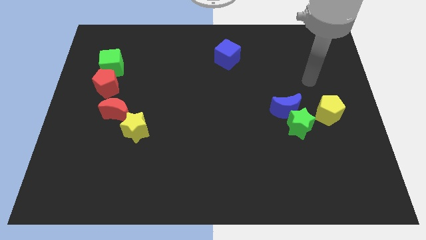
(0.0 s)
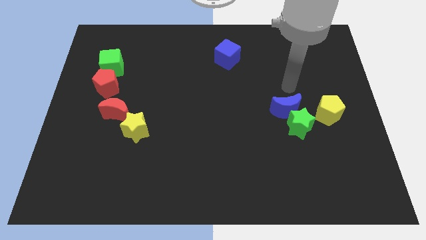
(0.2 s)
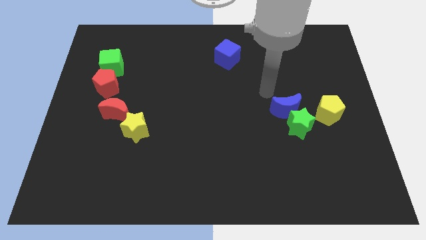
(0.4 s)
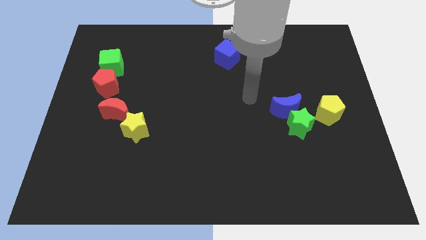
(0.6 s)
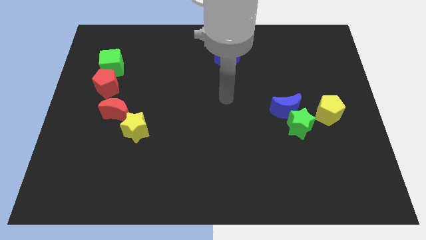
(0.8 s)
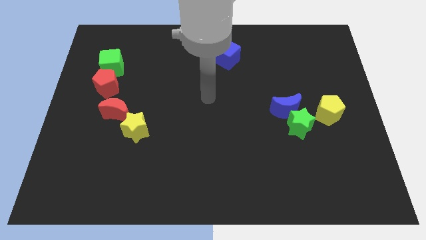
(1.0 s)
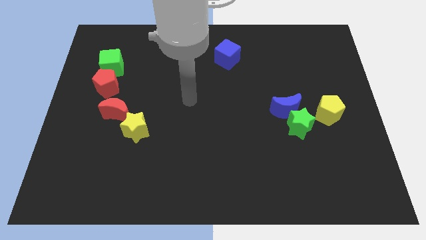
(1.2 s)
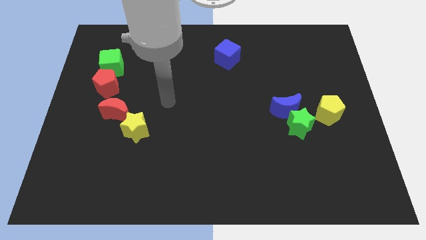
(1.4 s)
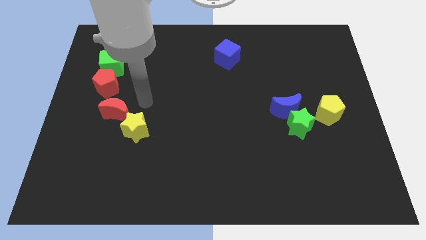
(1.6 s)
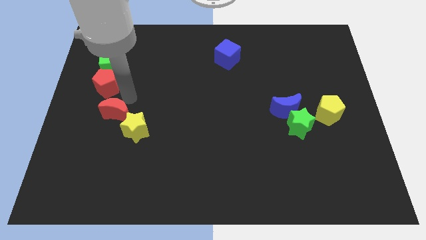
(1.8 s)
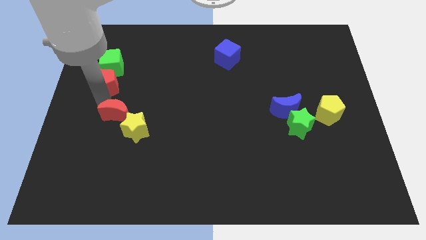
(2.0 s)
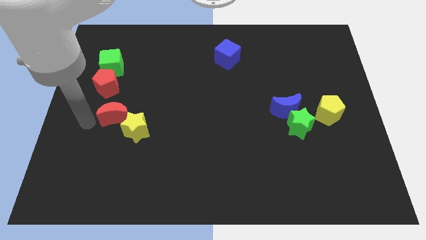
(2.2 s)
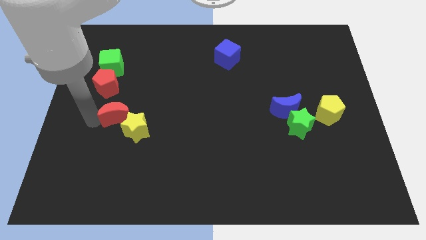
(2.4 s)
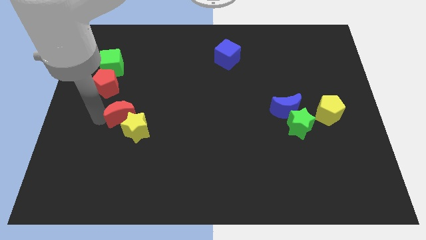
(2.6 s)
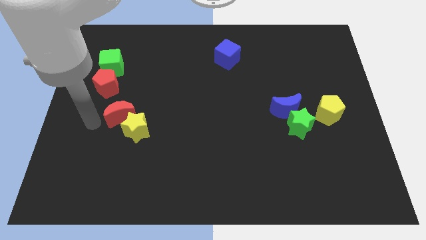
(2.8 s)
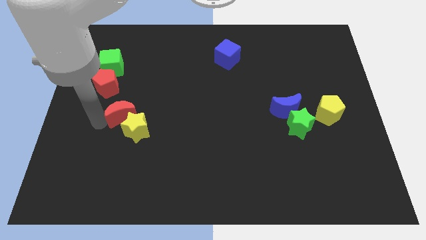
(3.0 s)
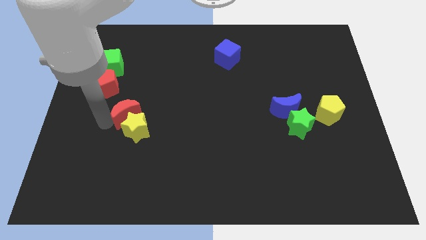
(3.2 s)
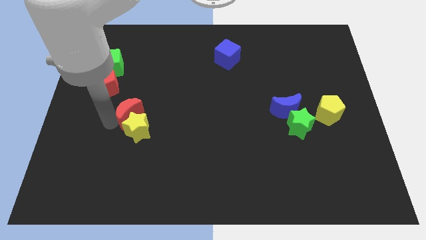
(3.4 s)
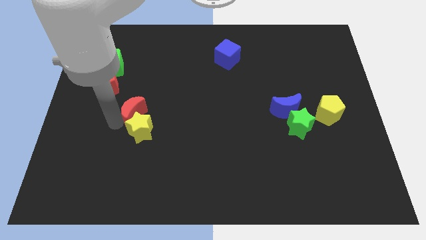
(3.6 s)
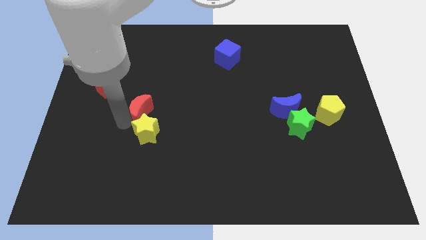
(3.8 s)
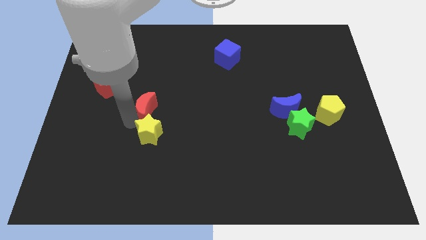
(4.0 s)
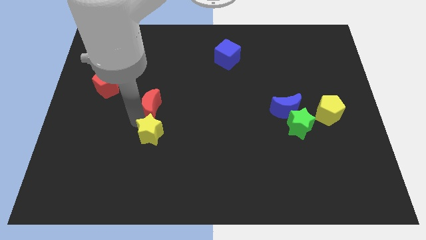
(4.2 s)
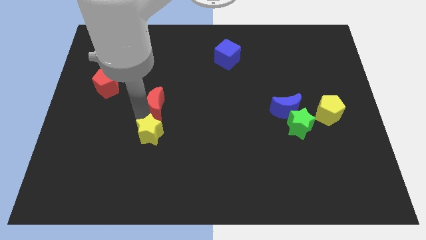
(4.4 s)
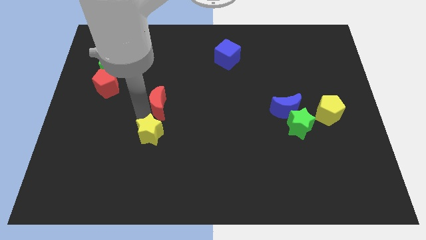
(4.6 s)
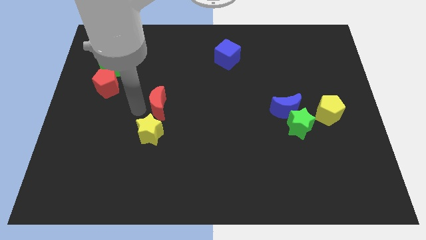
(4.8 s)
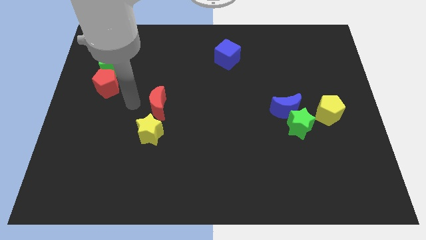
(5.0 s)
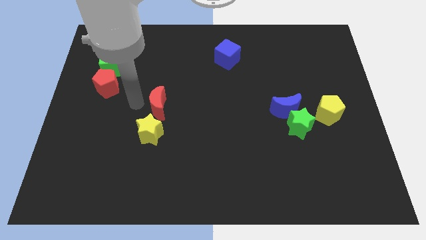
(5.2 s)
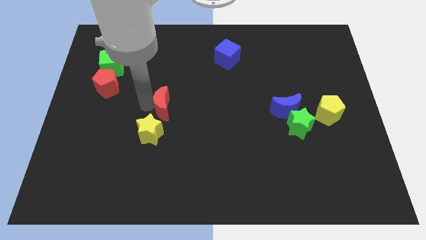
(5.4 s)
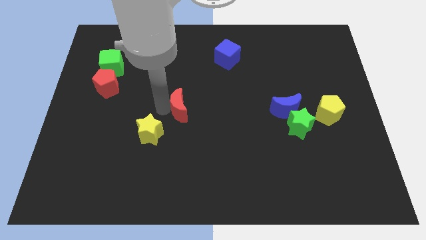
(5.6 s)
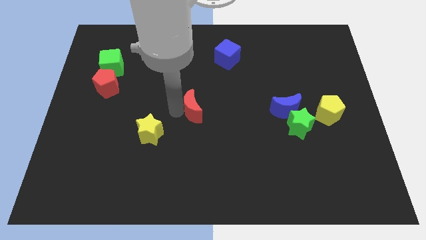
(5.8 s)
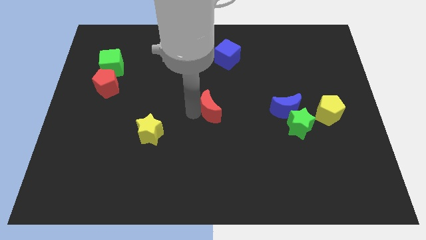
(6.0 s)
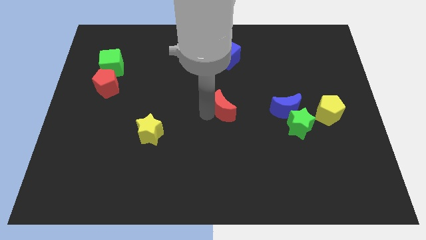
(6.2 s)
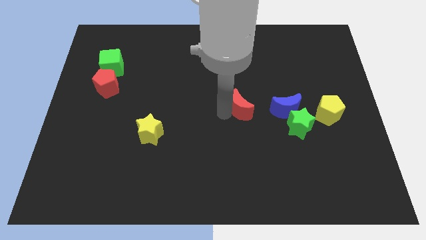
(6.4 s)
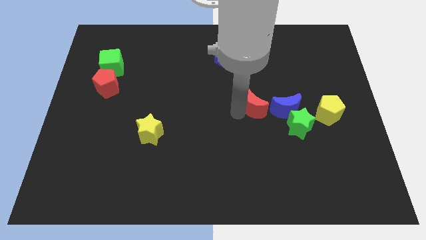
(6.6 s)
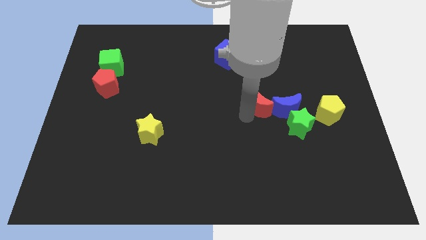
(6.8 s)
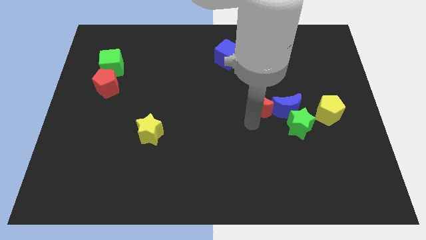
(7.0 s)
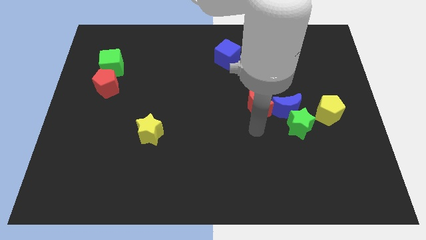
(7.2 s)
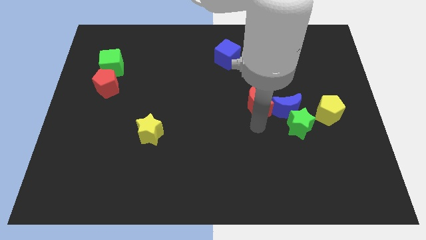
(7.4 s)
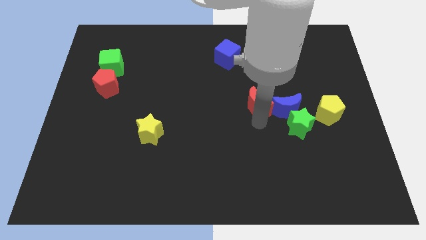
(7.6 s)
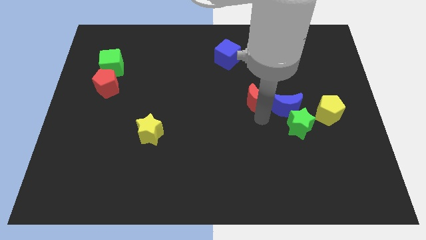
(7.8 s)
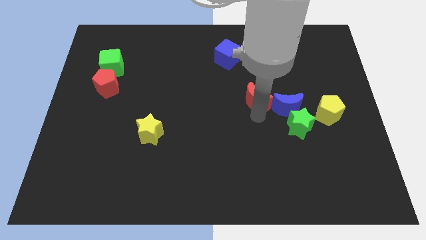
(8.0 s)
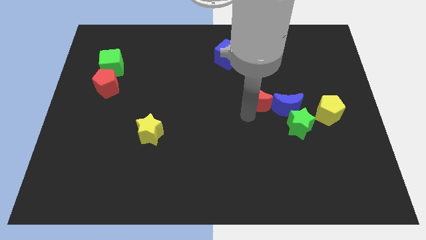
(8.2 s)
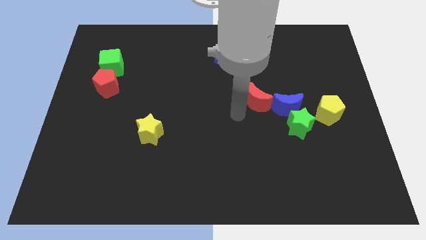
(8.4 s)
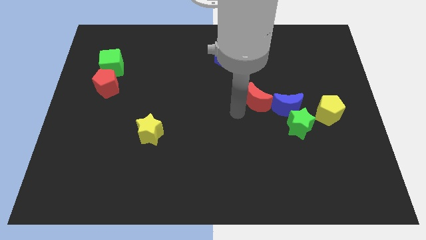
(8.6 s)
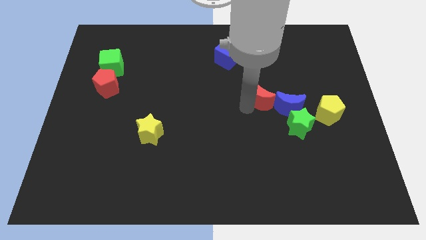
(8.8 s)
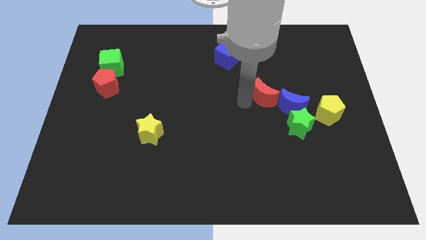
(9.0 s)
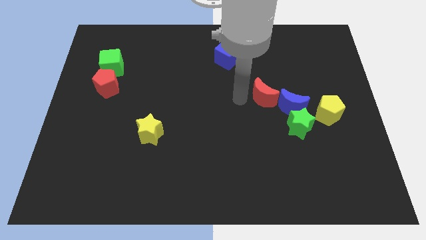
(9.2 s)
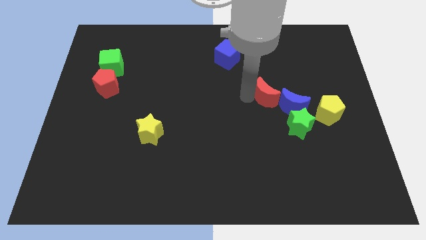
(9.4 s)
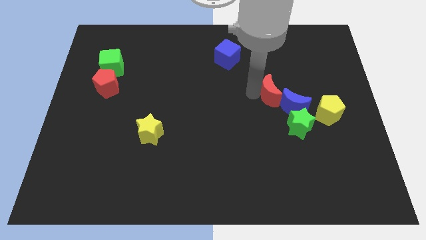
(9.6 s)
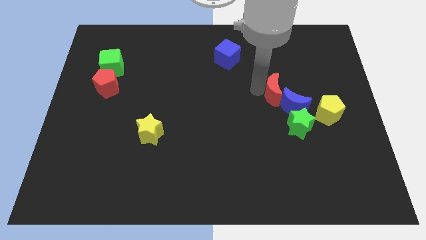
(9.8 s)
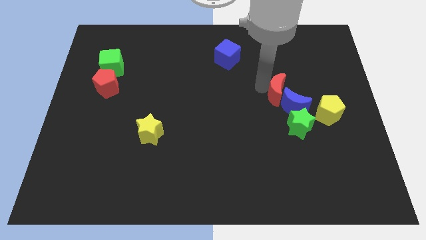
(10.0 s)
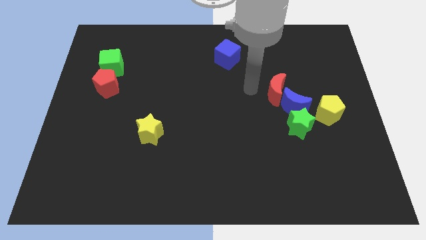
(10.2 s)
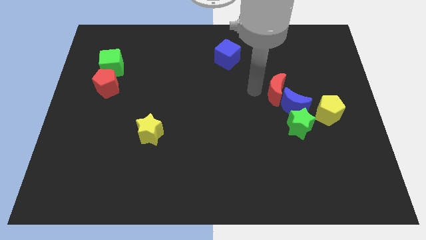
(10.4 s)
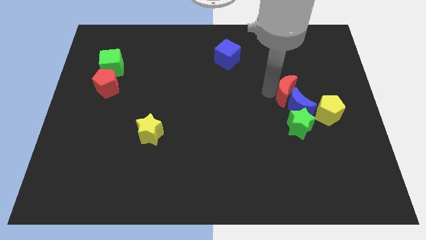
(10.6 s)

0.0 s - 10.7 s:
move the red moon to the top left of the yellow pentagon

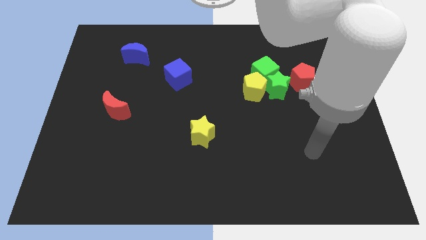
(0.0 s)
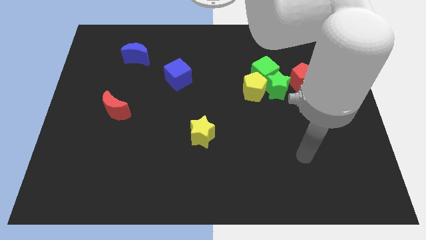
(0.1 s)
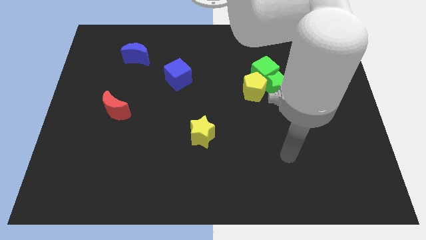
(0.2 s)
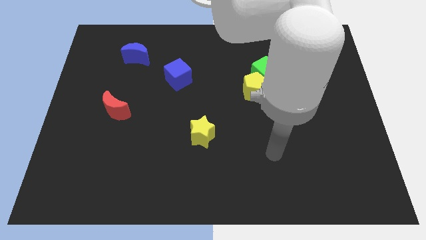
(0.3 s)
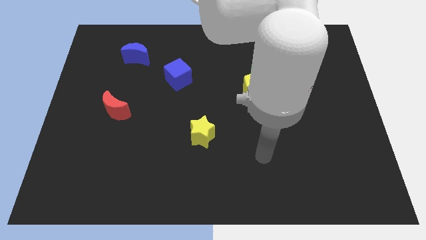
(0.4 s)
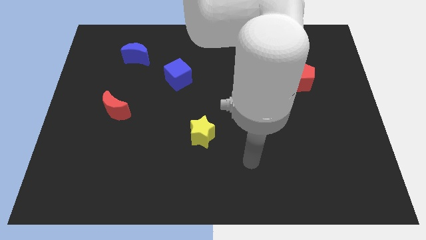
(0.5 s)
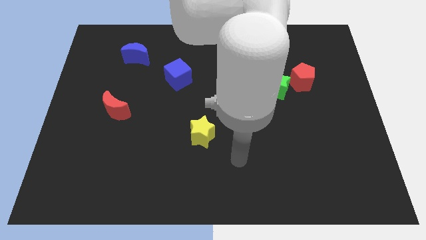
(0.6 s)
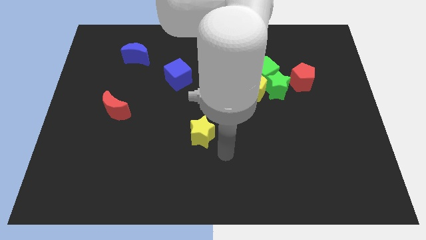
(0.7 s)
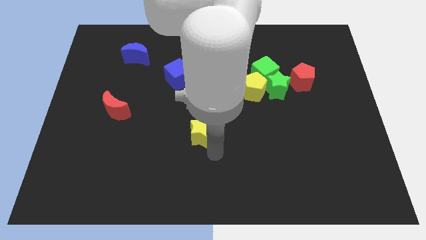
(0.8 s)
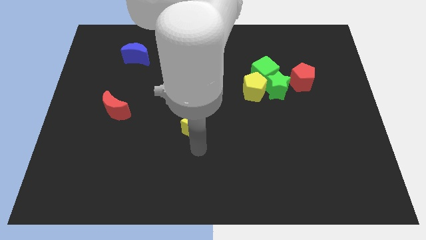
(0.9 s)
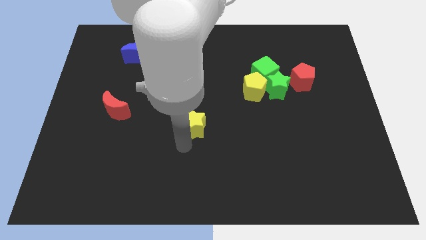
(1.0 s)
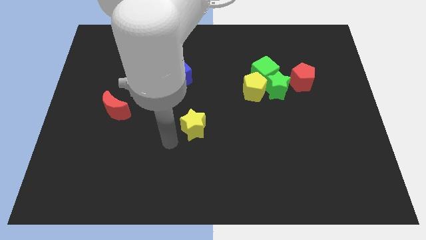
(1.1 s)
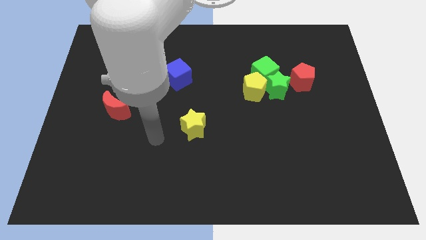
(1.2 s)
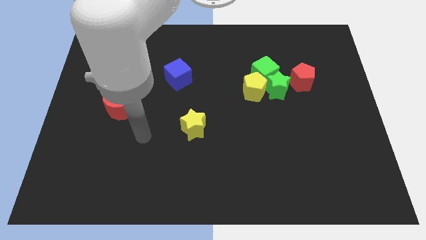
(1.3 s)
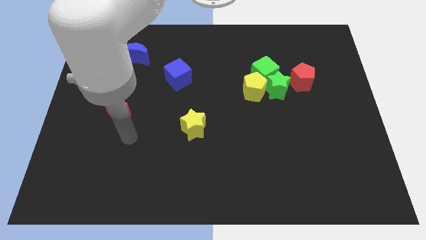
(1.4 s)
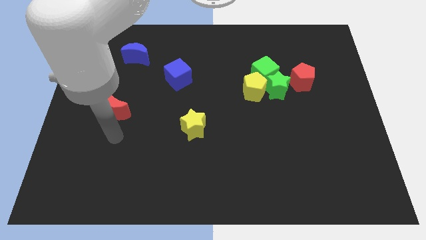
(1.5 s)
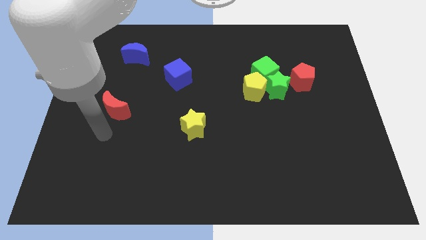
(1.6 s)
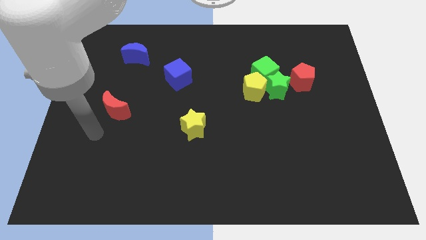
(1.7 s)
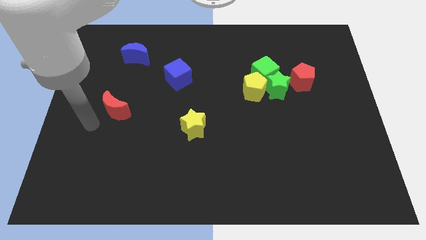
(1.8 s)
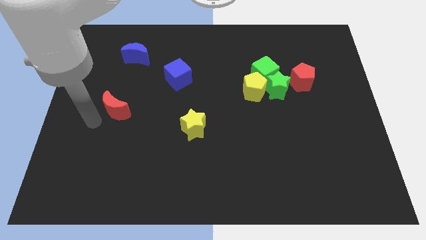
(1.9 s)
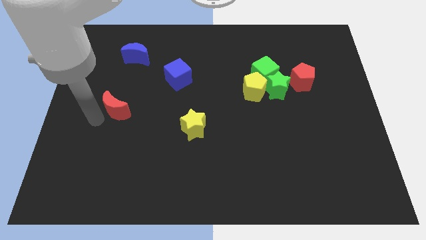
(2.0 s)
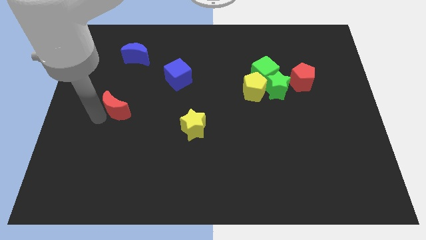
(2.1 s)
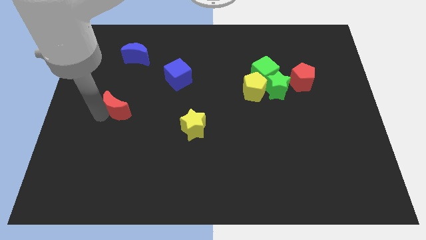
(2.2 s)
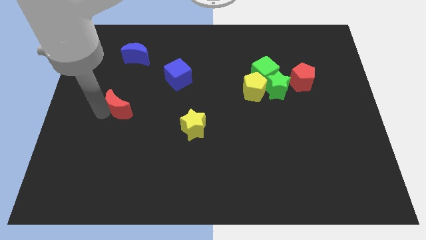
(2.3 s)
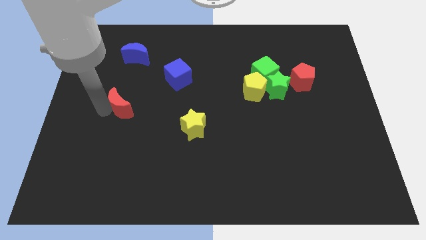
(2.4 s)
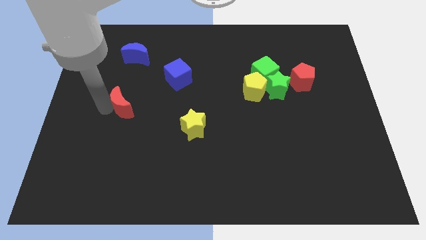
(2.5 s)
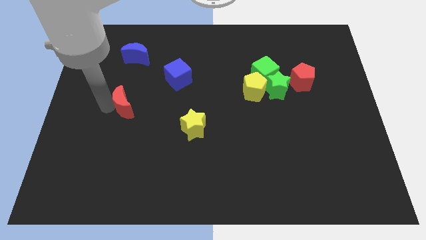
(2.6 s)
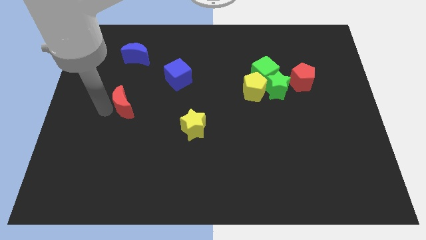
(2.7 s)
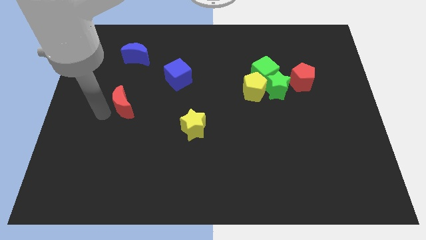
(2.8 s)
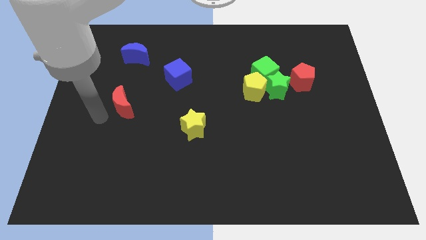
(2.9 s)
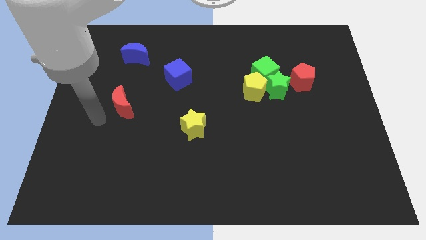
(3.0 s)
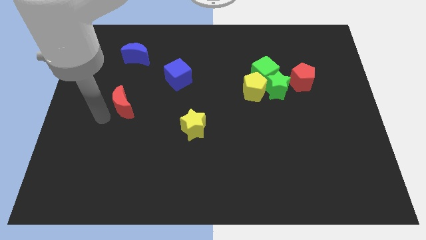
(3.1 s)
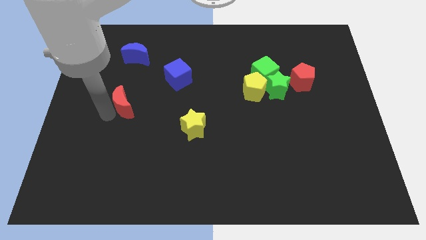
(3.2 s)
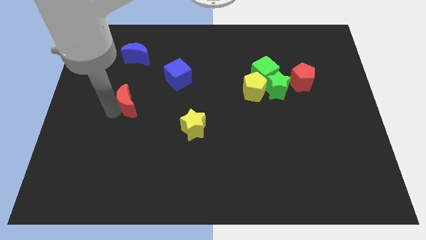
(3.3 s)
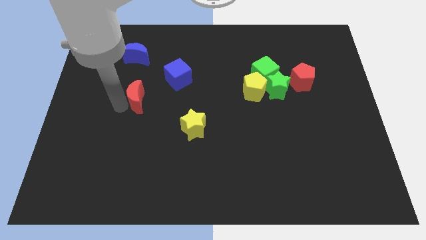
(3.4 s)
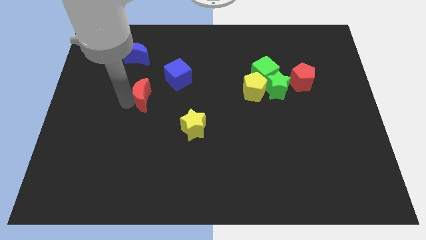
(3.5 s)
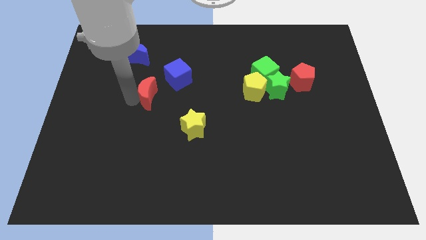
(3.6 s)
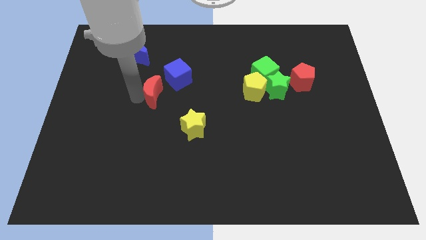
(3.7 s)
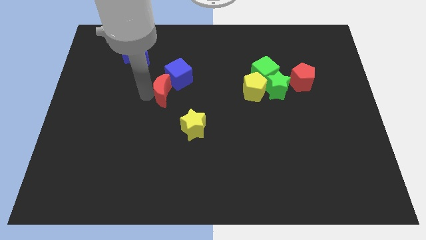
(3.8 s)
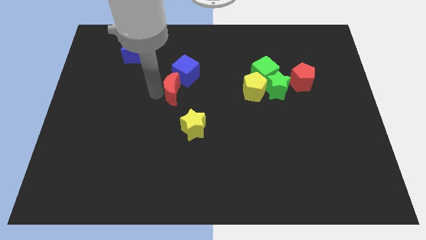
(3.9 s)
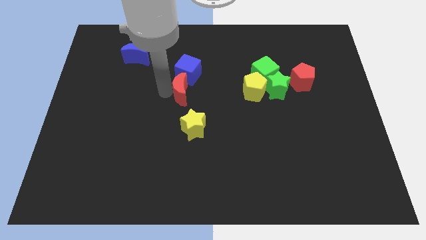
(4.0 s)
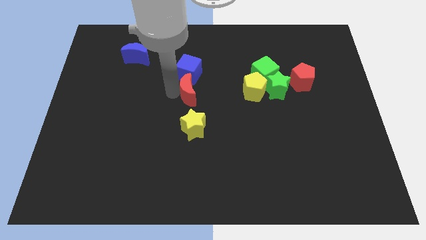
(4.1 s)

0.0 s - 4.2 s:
put the red moon to the bottom right of the blue cube
